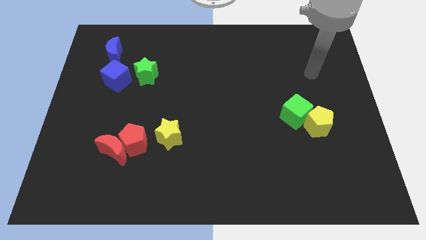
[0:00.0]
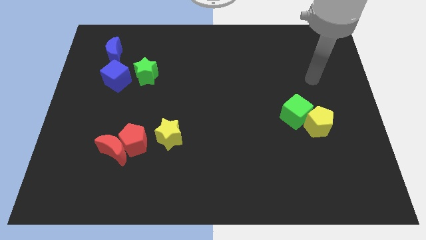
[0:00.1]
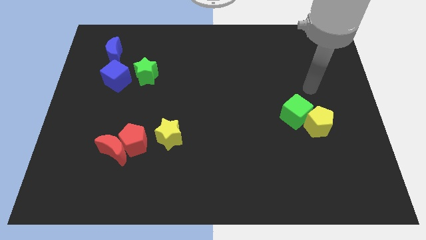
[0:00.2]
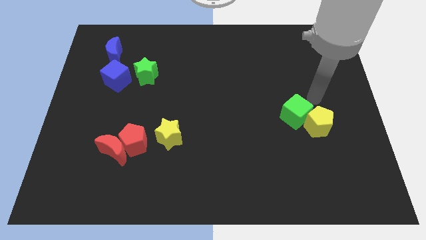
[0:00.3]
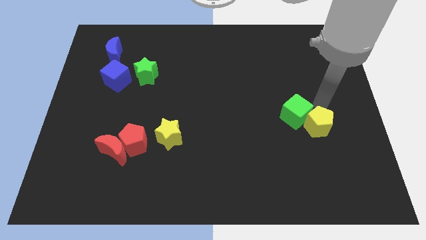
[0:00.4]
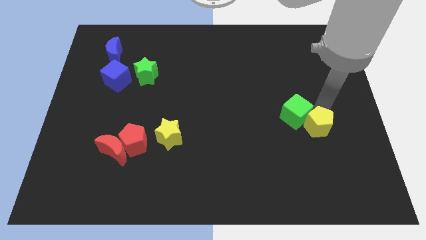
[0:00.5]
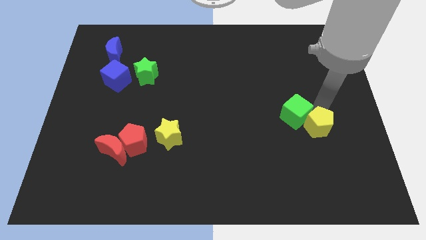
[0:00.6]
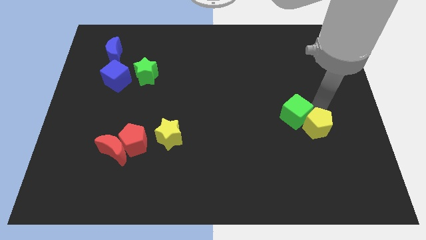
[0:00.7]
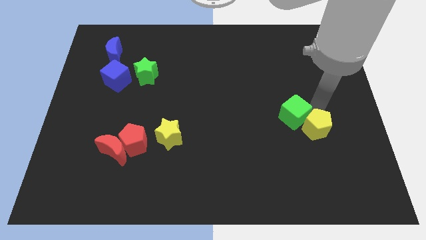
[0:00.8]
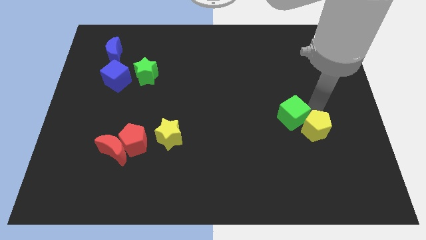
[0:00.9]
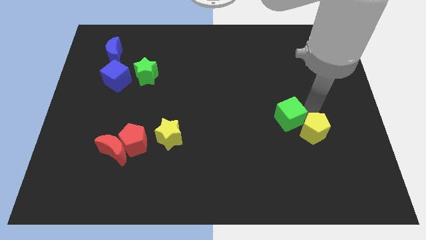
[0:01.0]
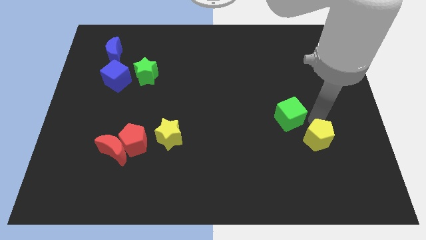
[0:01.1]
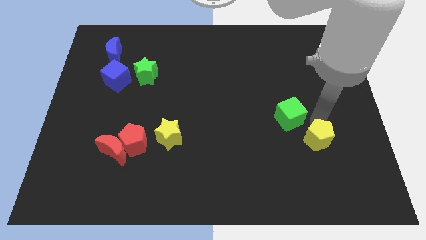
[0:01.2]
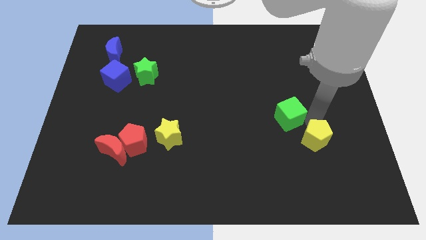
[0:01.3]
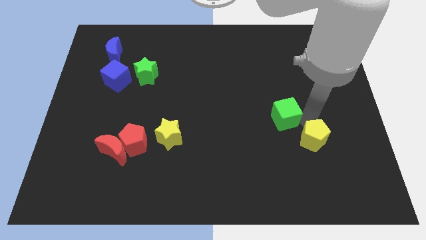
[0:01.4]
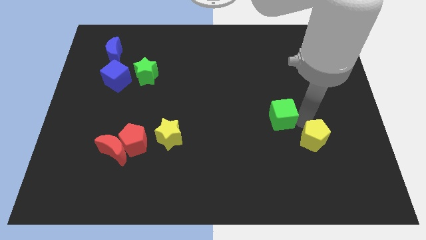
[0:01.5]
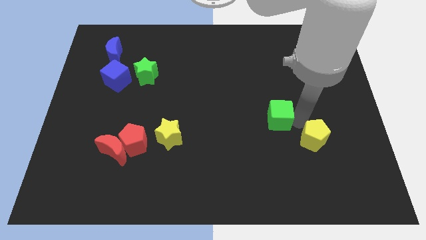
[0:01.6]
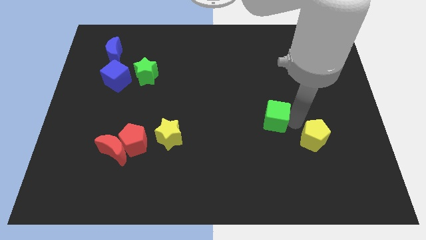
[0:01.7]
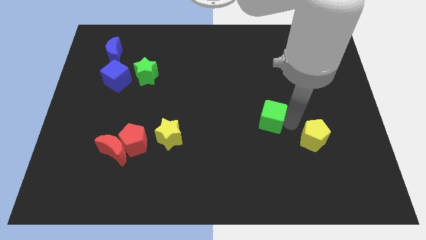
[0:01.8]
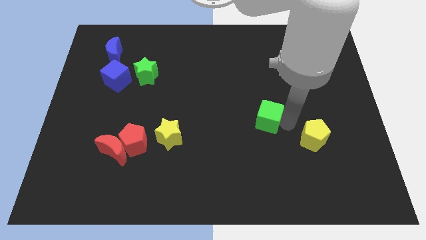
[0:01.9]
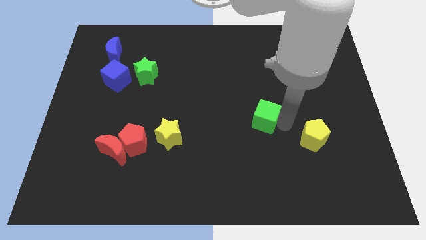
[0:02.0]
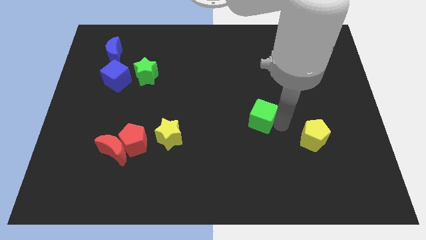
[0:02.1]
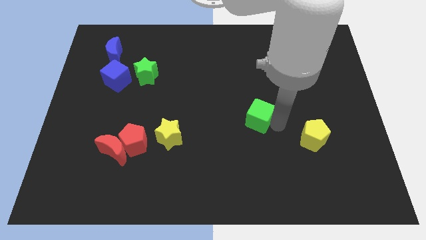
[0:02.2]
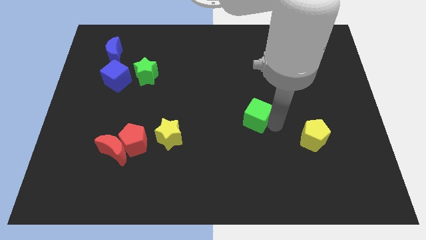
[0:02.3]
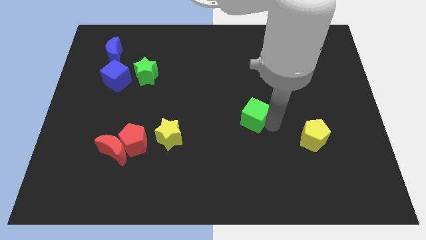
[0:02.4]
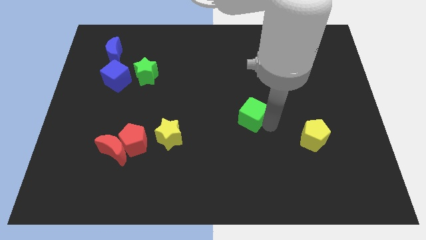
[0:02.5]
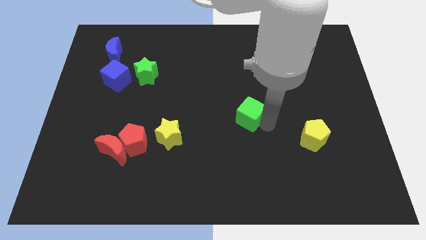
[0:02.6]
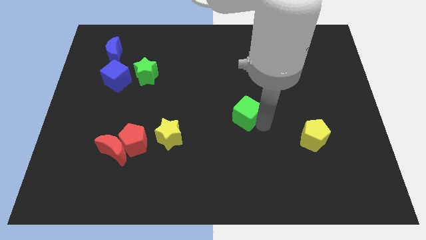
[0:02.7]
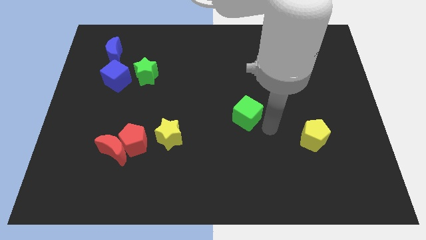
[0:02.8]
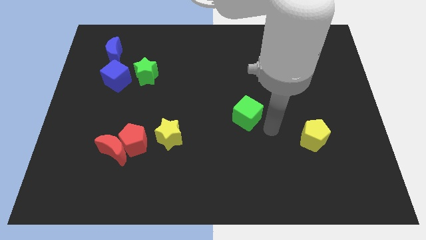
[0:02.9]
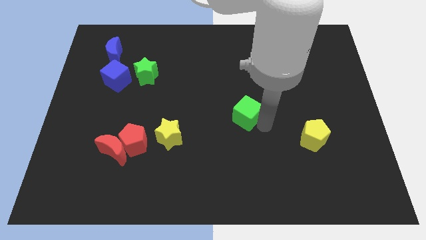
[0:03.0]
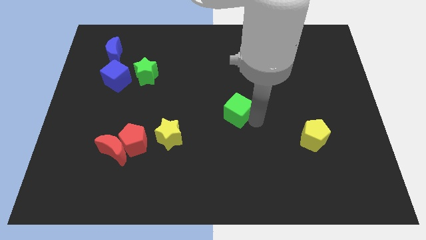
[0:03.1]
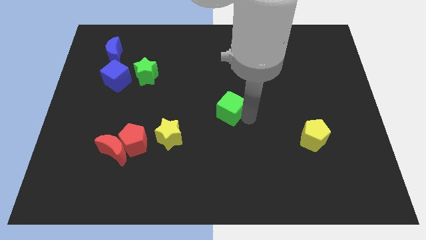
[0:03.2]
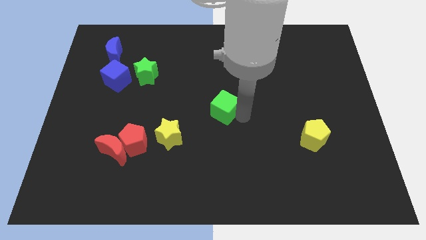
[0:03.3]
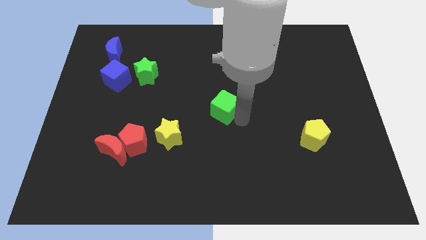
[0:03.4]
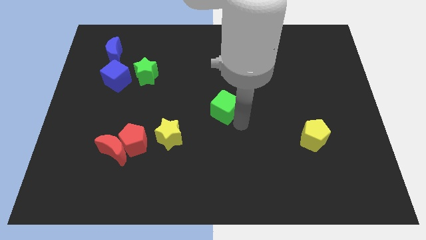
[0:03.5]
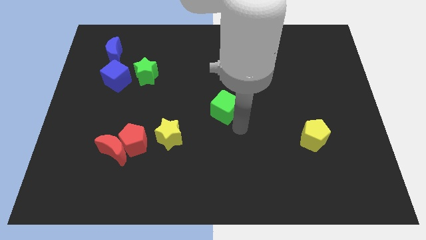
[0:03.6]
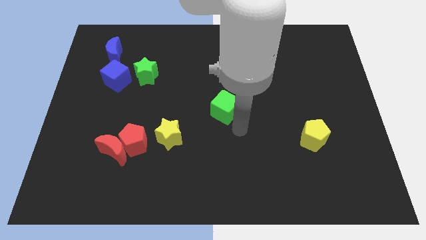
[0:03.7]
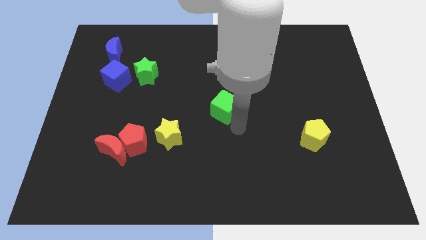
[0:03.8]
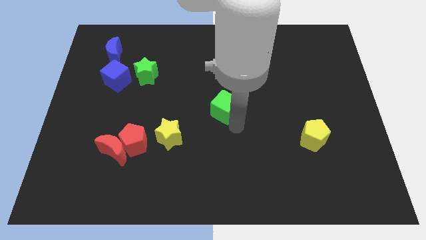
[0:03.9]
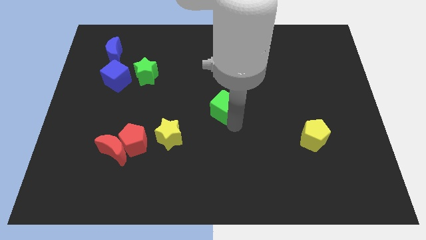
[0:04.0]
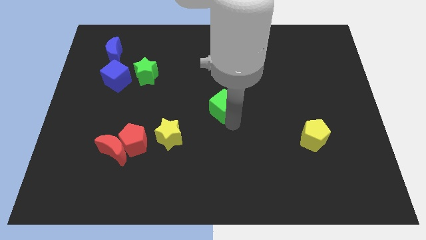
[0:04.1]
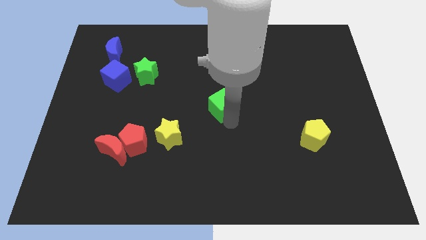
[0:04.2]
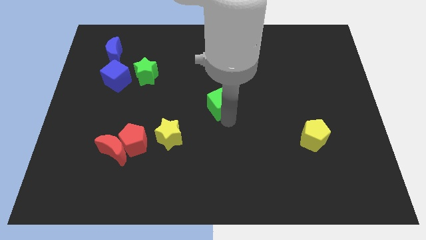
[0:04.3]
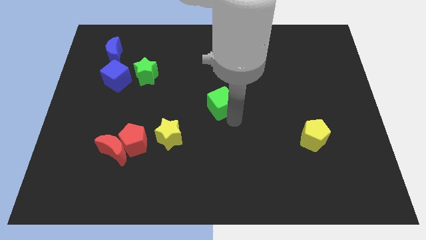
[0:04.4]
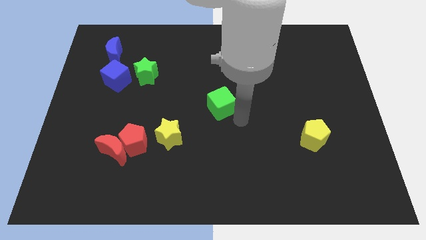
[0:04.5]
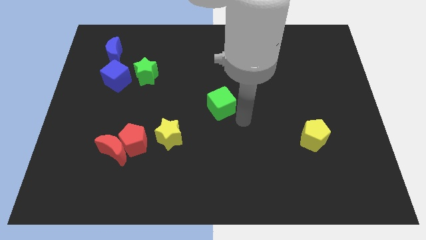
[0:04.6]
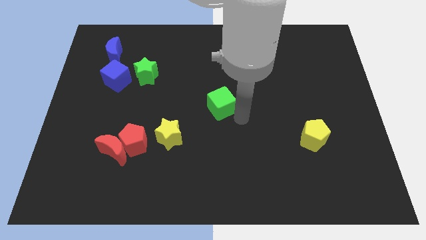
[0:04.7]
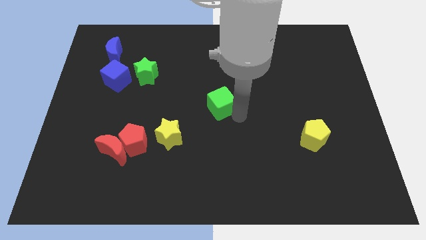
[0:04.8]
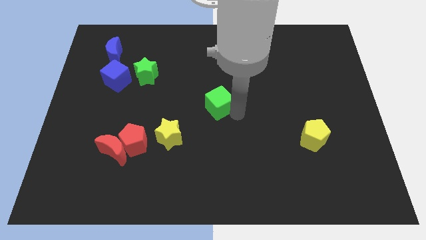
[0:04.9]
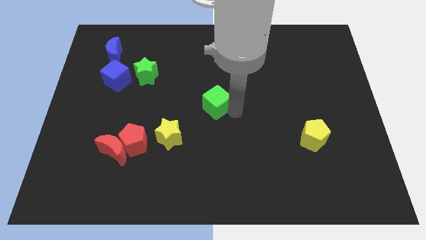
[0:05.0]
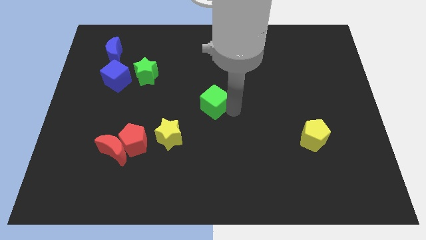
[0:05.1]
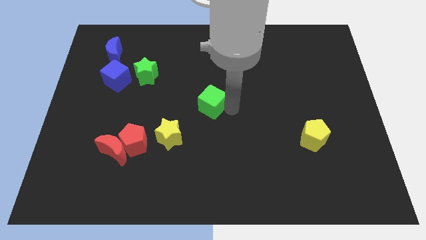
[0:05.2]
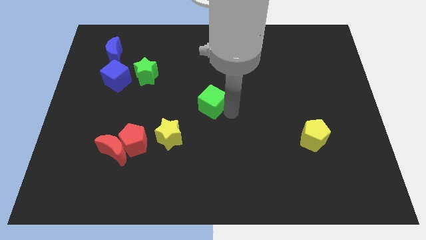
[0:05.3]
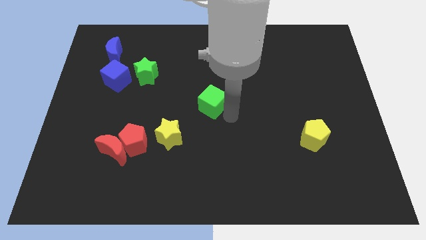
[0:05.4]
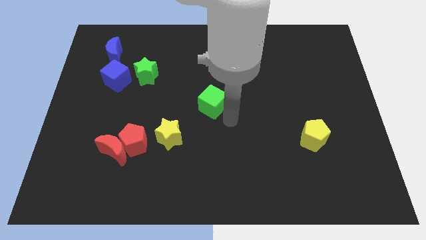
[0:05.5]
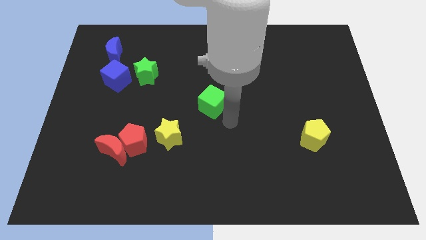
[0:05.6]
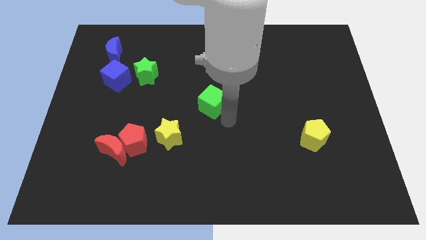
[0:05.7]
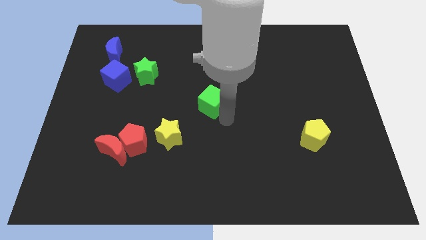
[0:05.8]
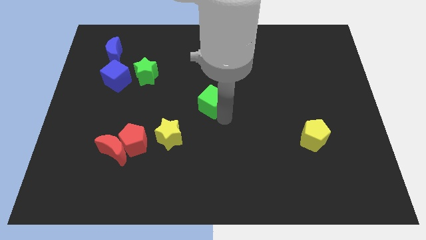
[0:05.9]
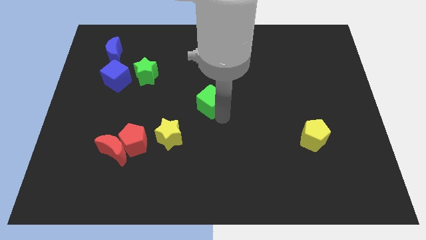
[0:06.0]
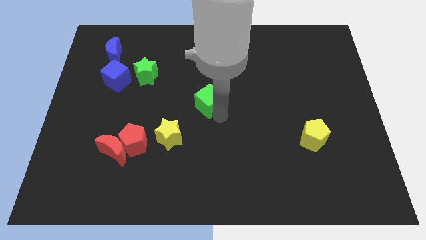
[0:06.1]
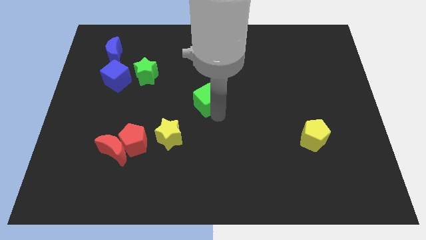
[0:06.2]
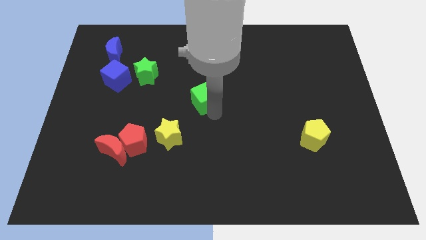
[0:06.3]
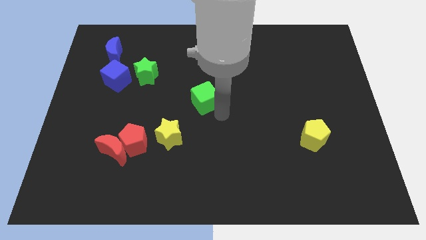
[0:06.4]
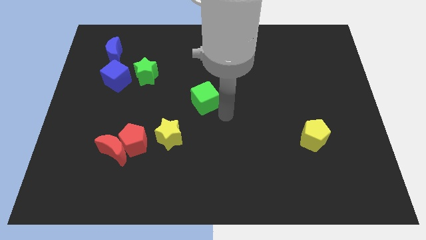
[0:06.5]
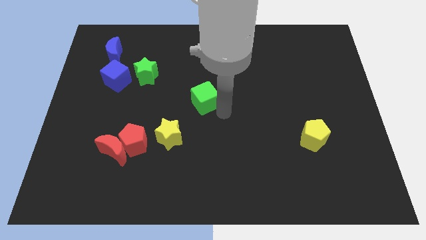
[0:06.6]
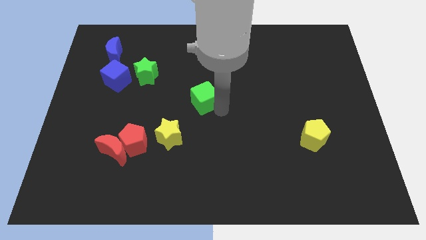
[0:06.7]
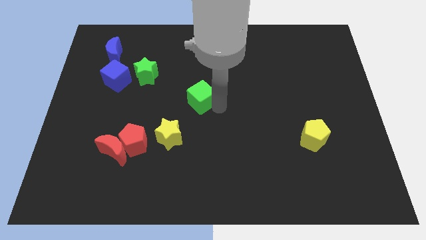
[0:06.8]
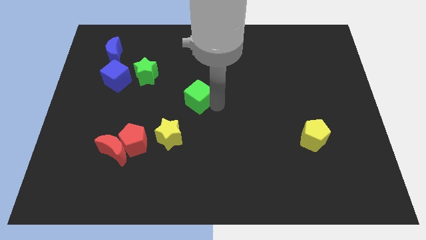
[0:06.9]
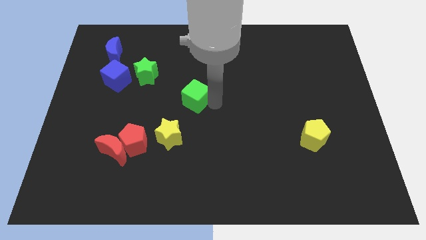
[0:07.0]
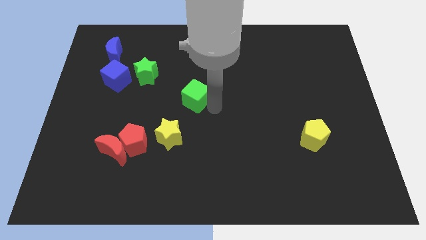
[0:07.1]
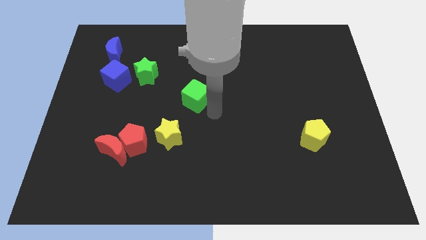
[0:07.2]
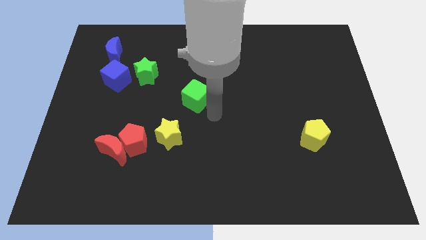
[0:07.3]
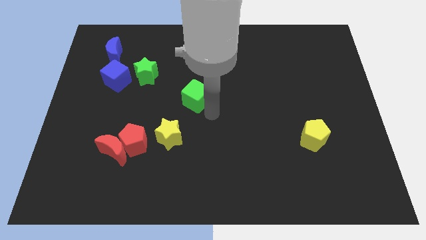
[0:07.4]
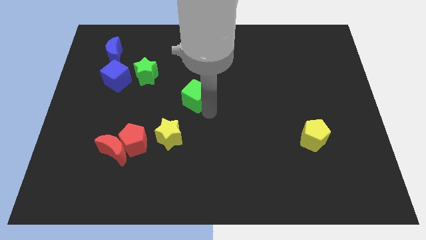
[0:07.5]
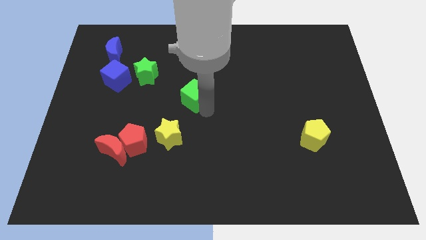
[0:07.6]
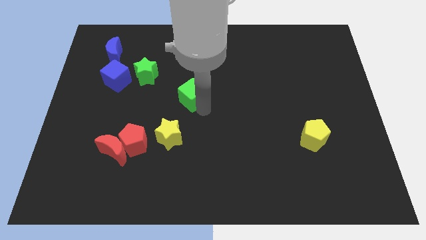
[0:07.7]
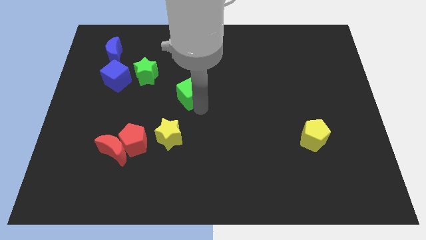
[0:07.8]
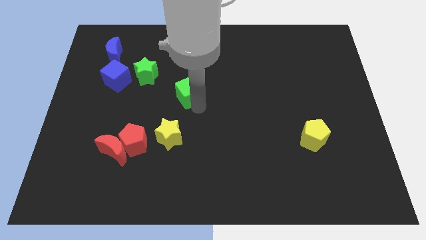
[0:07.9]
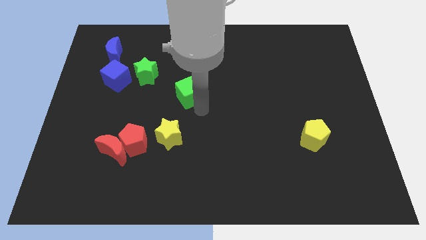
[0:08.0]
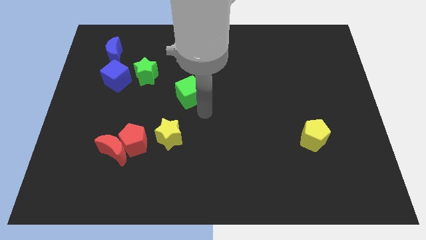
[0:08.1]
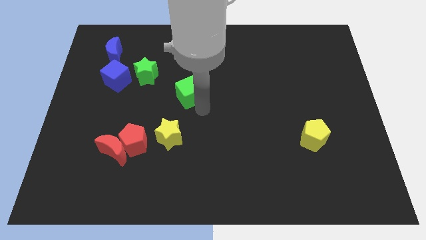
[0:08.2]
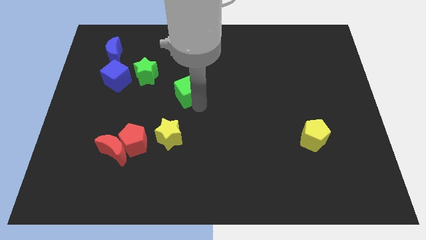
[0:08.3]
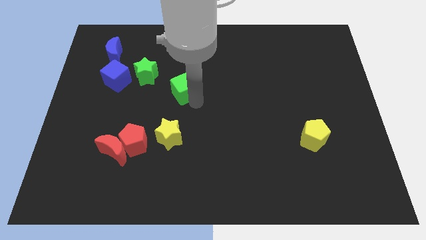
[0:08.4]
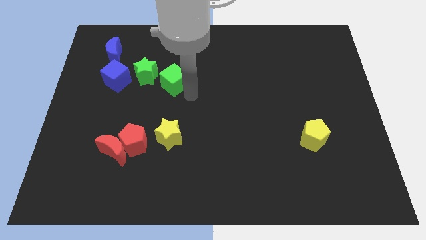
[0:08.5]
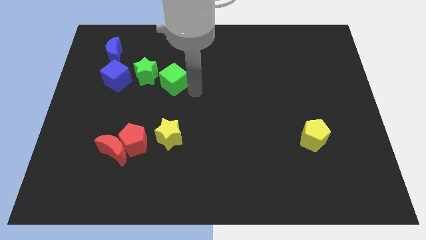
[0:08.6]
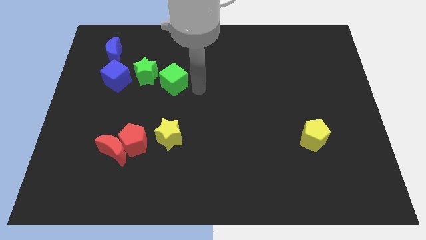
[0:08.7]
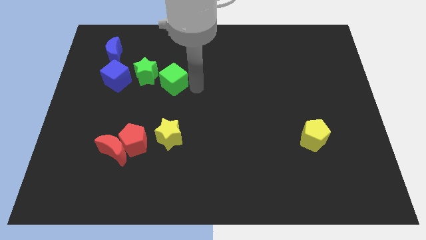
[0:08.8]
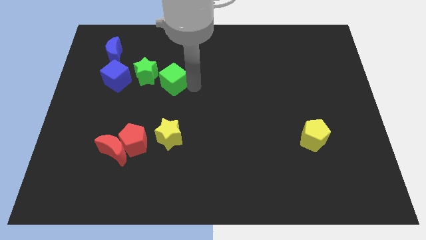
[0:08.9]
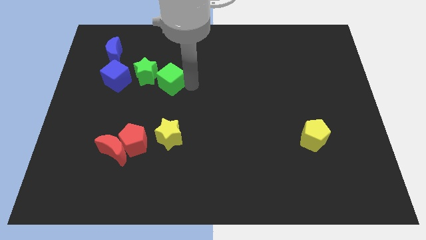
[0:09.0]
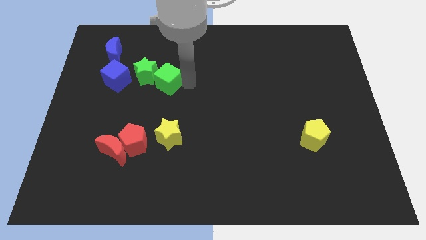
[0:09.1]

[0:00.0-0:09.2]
push the green cube to the green star
